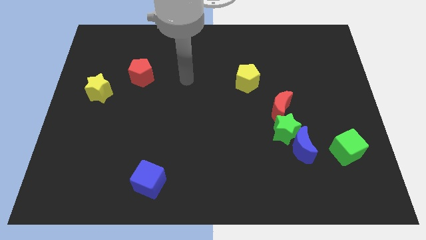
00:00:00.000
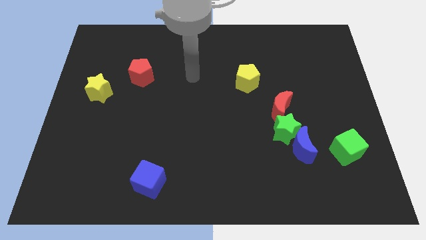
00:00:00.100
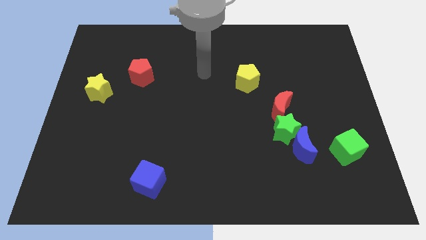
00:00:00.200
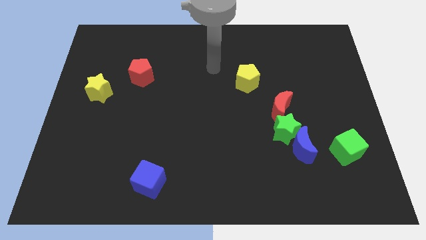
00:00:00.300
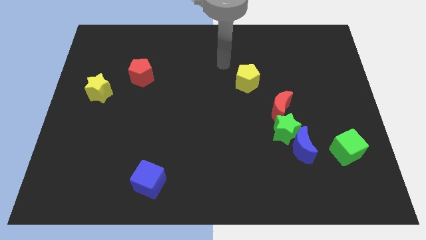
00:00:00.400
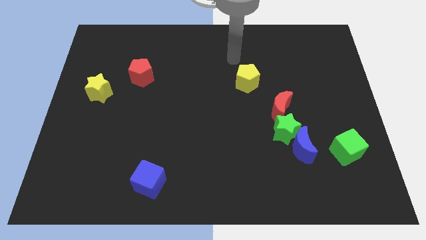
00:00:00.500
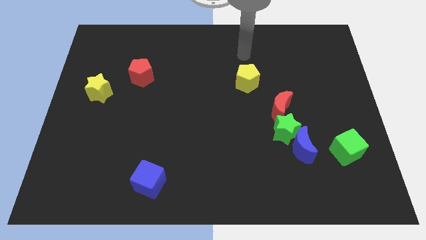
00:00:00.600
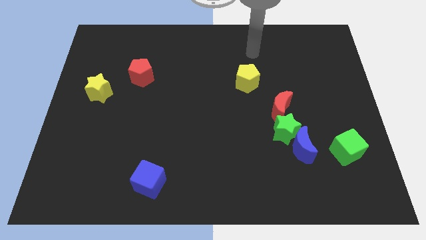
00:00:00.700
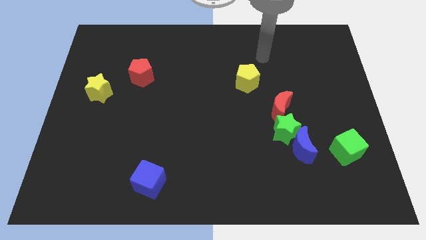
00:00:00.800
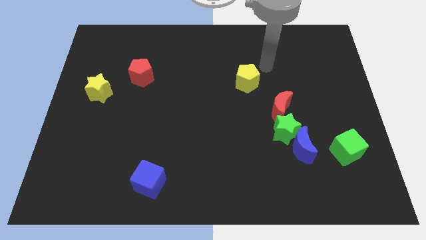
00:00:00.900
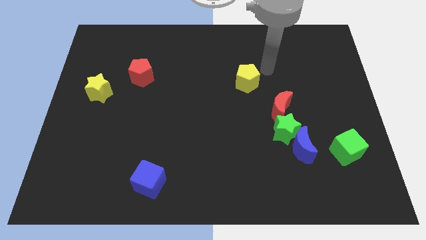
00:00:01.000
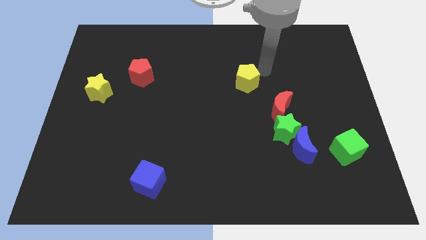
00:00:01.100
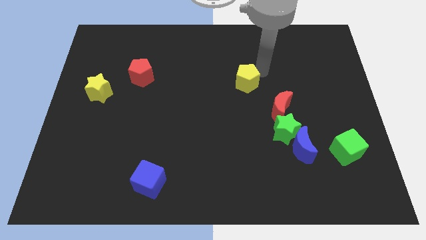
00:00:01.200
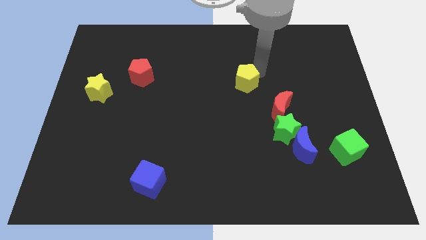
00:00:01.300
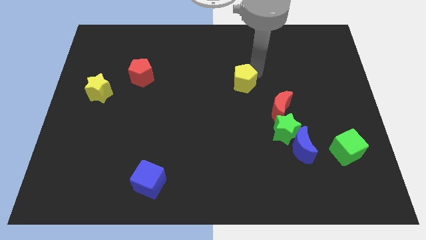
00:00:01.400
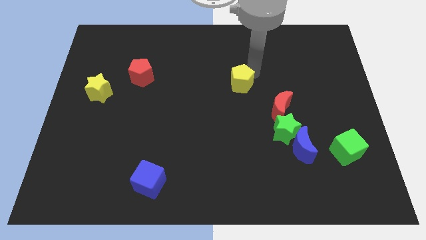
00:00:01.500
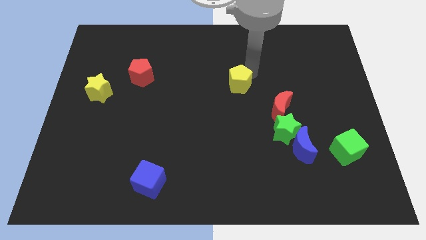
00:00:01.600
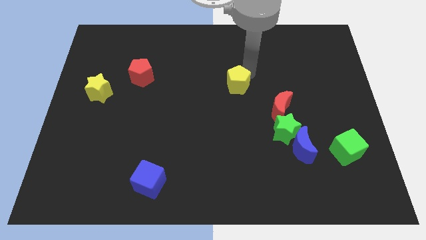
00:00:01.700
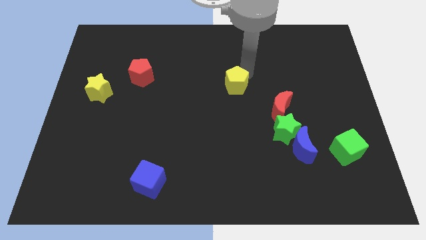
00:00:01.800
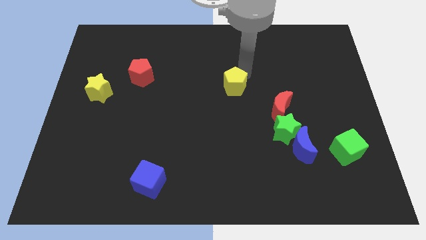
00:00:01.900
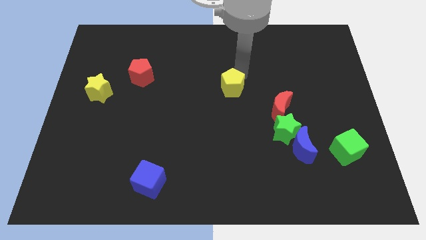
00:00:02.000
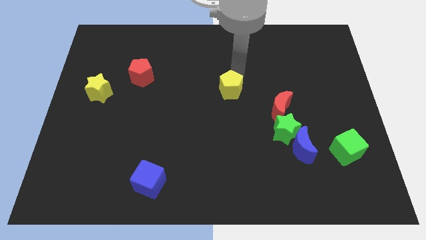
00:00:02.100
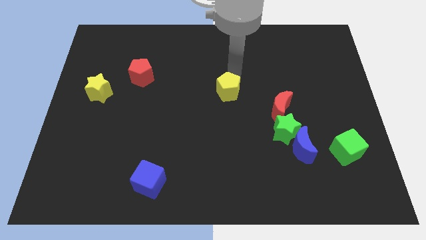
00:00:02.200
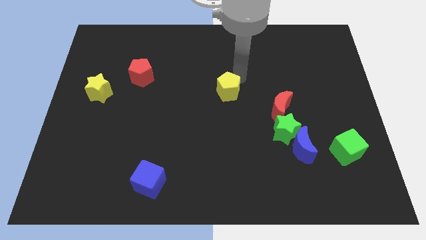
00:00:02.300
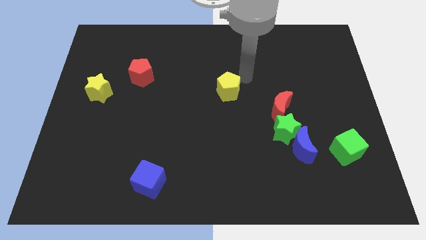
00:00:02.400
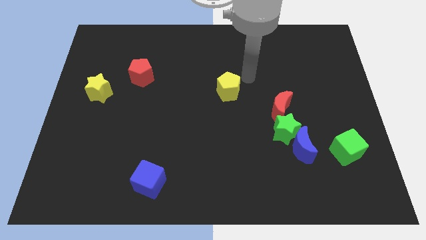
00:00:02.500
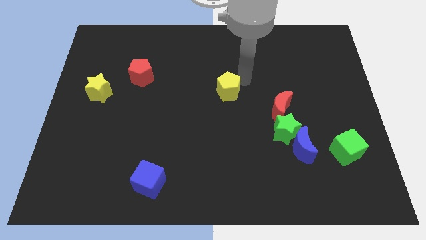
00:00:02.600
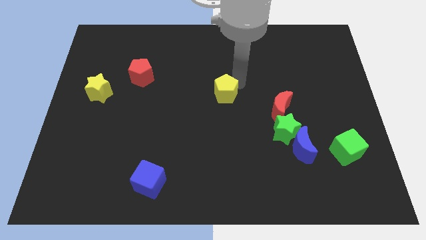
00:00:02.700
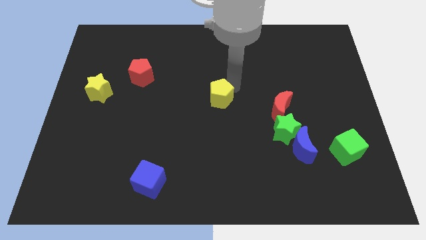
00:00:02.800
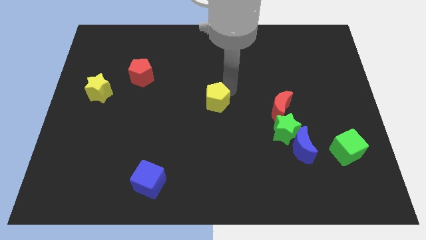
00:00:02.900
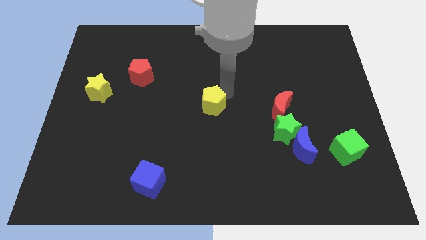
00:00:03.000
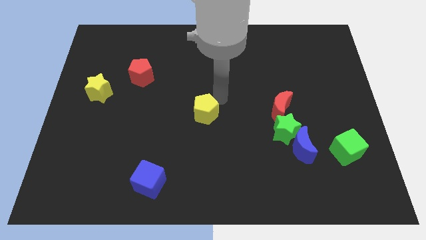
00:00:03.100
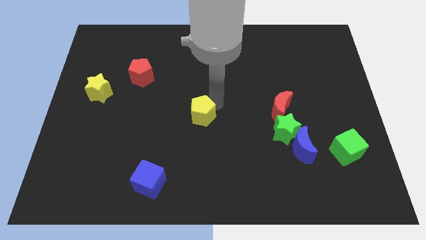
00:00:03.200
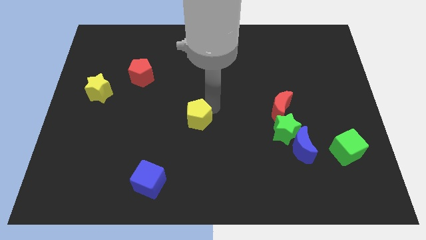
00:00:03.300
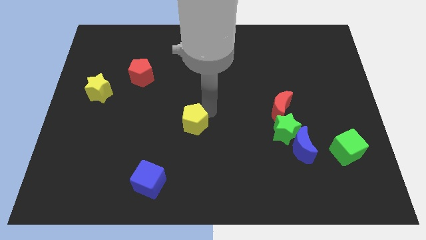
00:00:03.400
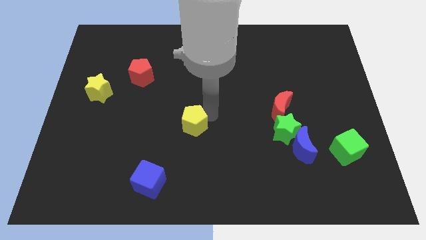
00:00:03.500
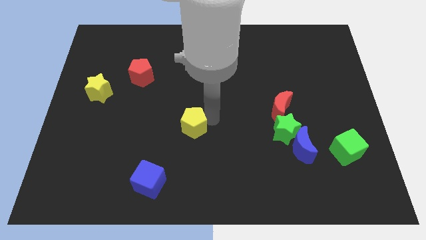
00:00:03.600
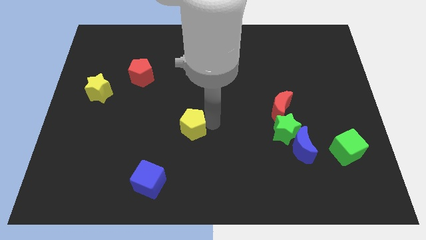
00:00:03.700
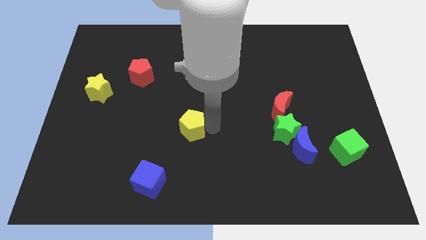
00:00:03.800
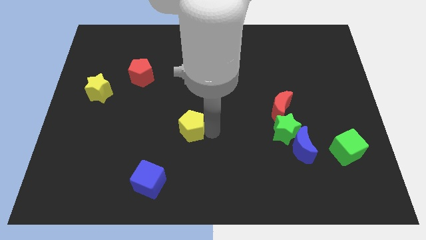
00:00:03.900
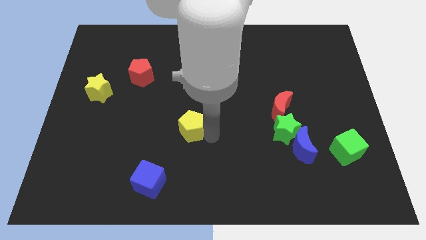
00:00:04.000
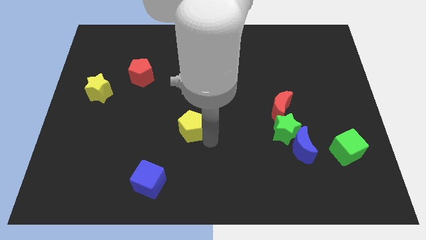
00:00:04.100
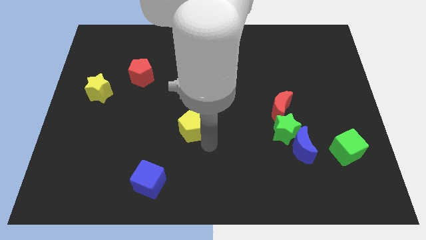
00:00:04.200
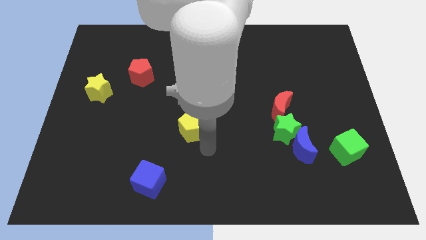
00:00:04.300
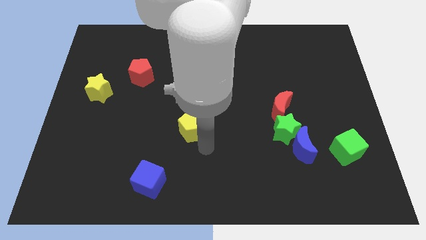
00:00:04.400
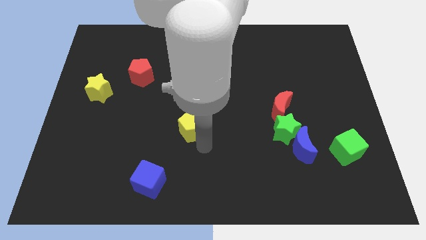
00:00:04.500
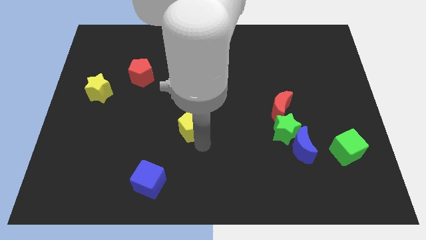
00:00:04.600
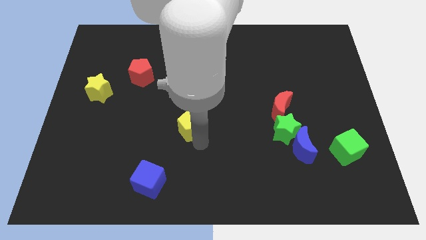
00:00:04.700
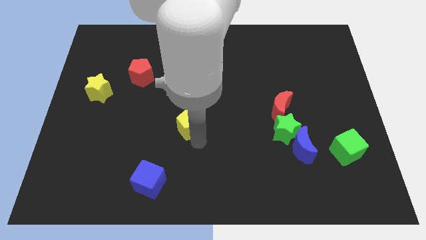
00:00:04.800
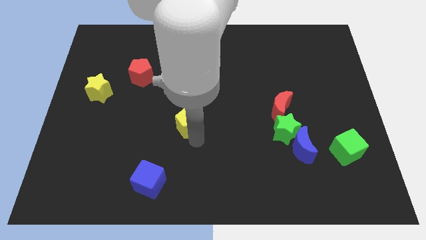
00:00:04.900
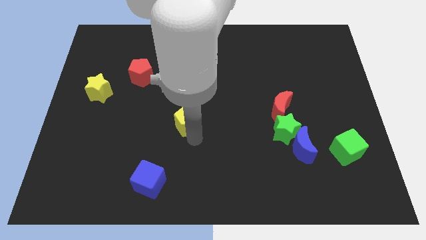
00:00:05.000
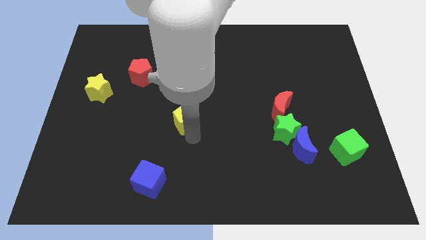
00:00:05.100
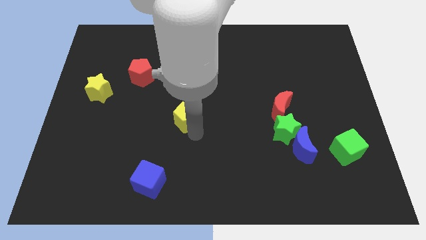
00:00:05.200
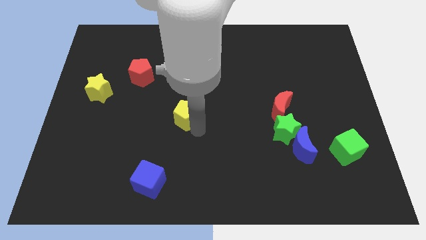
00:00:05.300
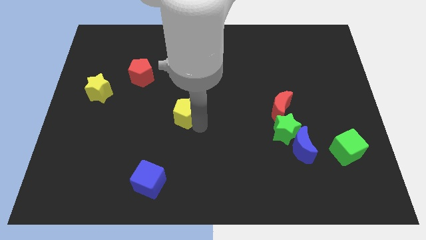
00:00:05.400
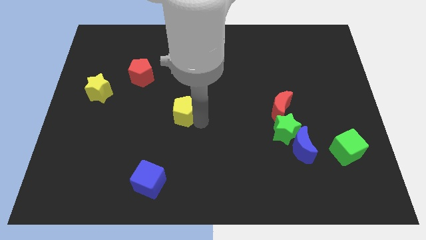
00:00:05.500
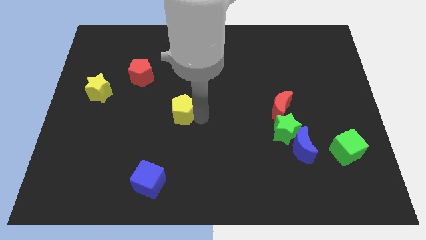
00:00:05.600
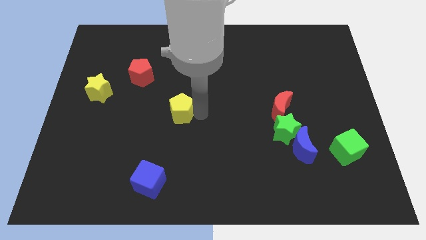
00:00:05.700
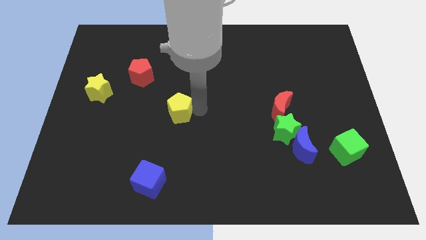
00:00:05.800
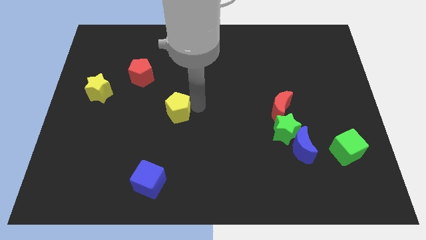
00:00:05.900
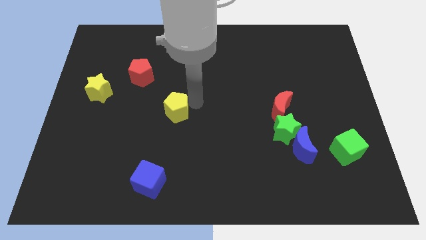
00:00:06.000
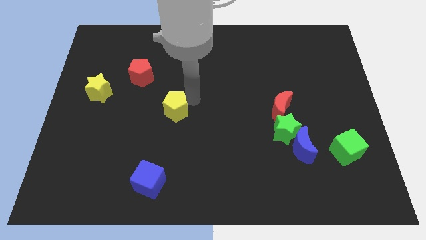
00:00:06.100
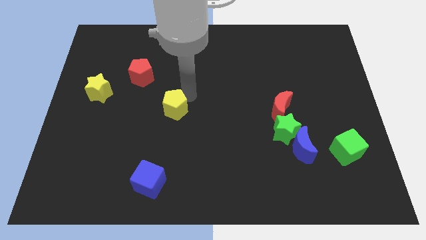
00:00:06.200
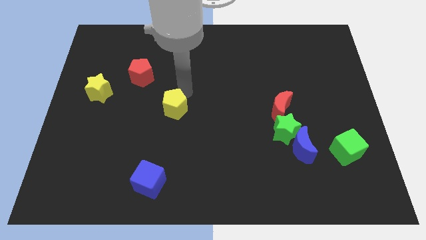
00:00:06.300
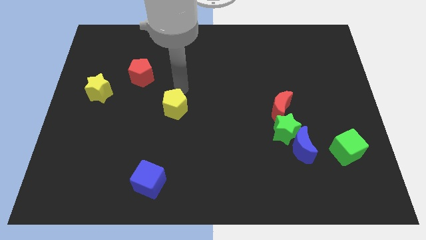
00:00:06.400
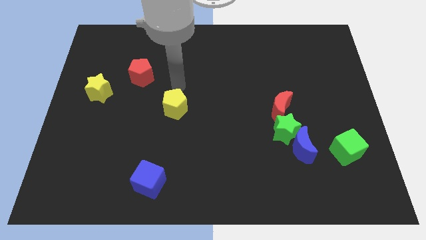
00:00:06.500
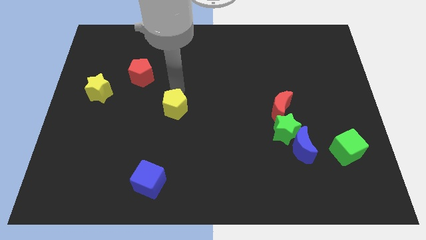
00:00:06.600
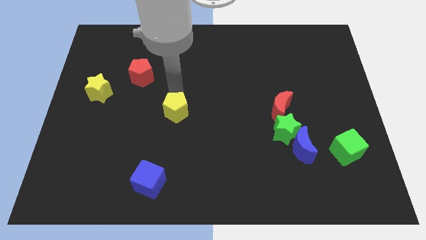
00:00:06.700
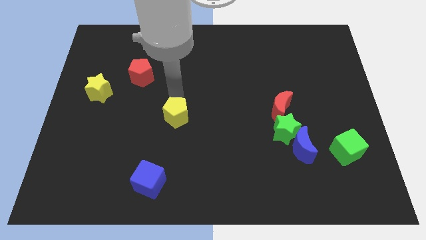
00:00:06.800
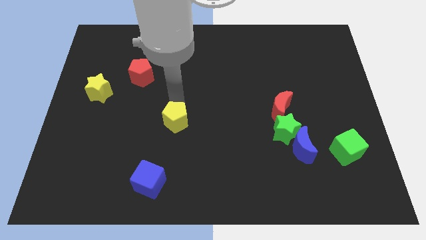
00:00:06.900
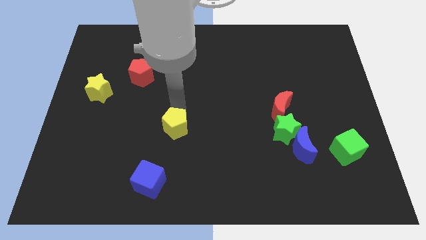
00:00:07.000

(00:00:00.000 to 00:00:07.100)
push the yellow pentagon to the top side of the blue cube
